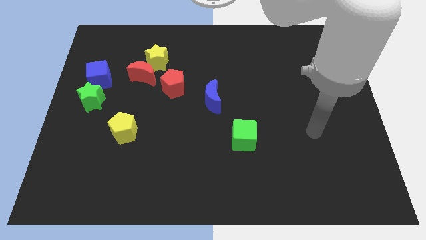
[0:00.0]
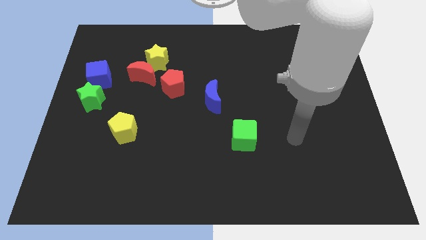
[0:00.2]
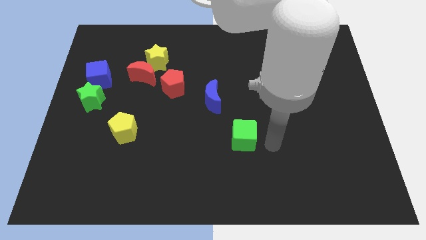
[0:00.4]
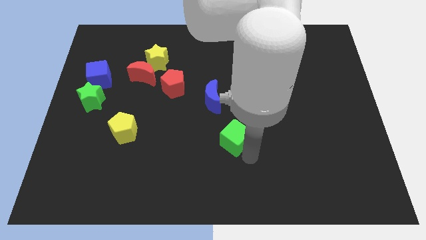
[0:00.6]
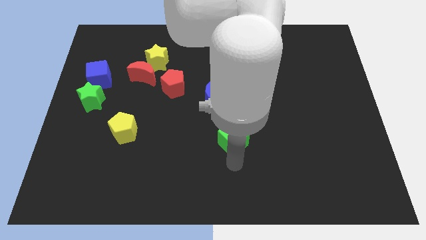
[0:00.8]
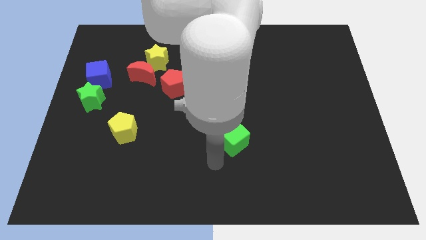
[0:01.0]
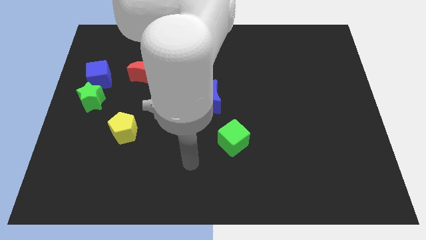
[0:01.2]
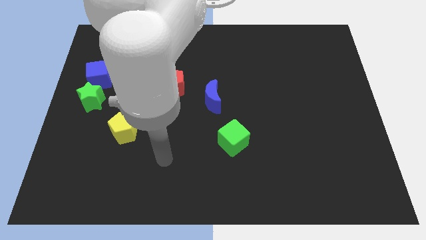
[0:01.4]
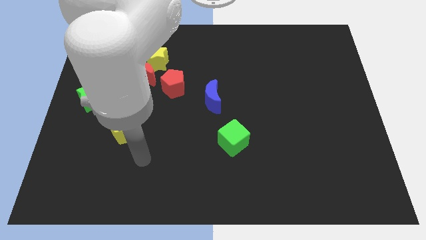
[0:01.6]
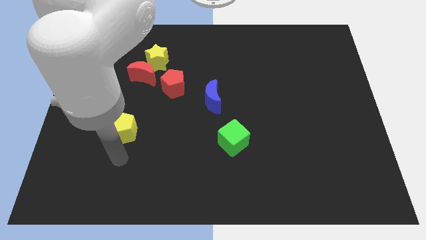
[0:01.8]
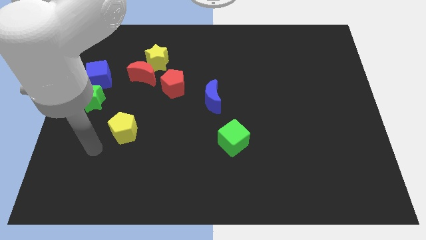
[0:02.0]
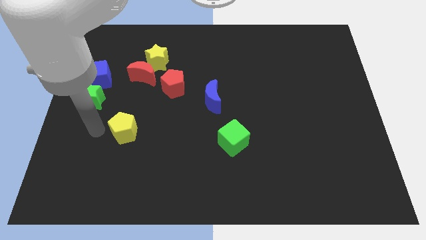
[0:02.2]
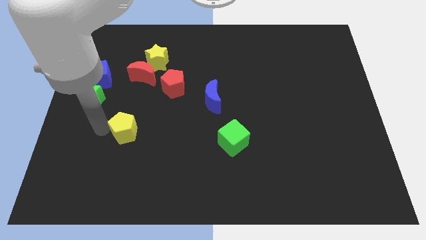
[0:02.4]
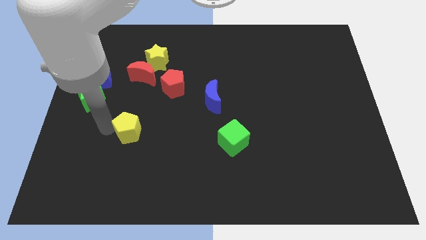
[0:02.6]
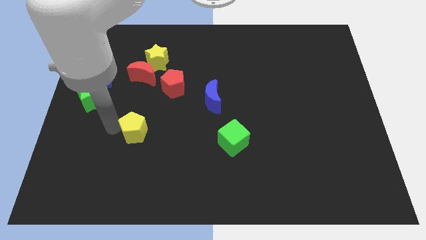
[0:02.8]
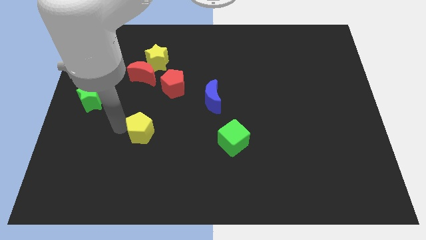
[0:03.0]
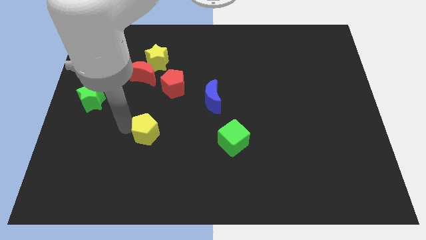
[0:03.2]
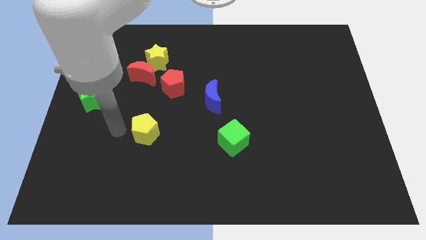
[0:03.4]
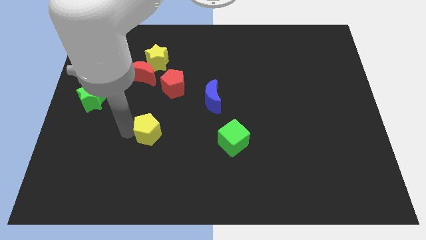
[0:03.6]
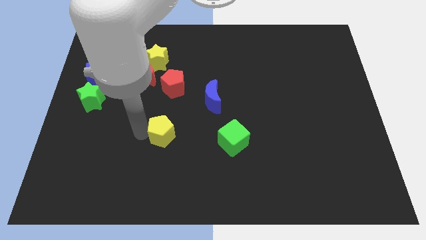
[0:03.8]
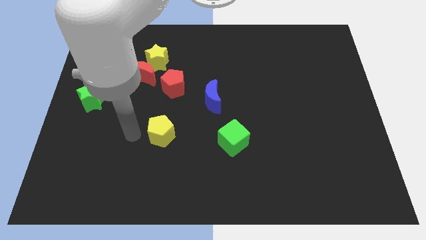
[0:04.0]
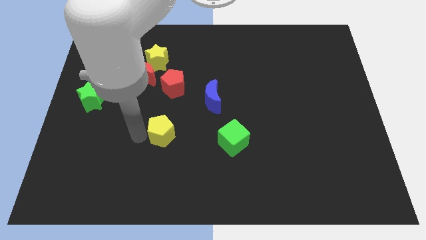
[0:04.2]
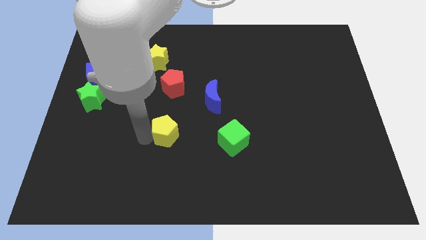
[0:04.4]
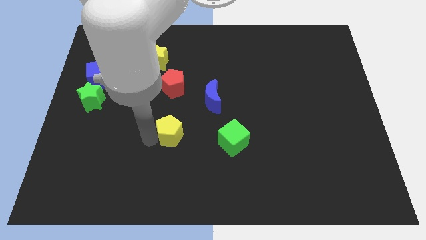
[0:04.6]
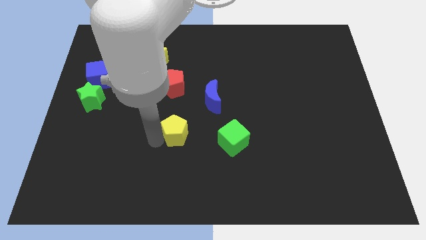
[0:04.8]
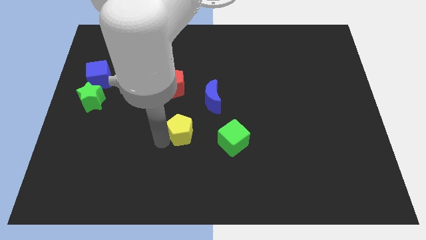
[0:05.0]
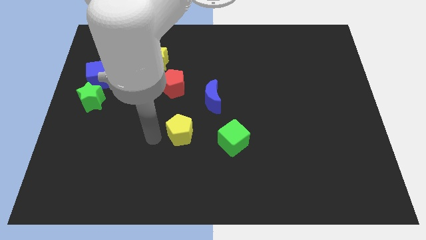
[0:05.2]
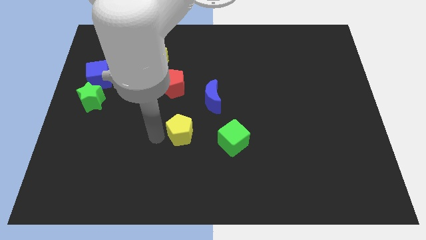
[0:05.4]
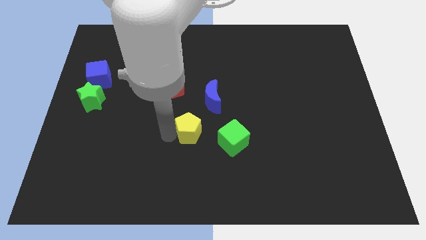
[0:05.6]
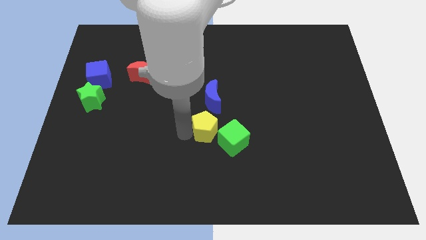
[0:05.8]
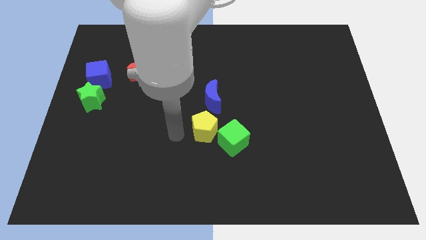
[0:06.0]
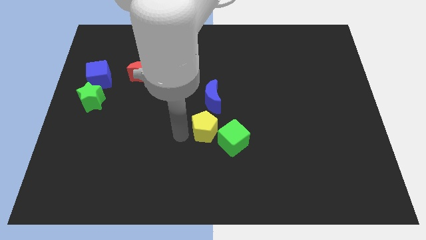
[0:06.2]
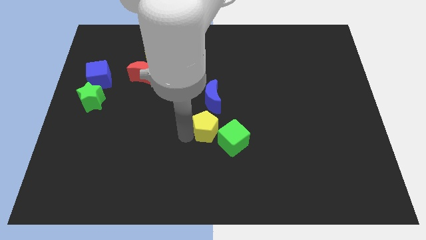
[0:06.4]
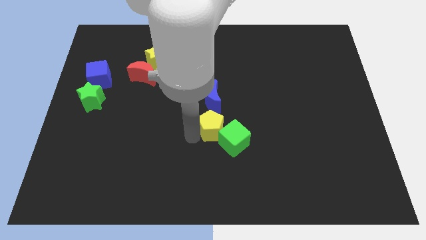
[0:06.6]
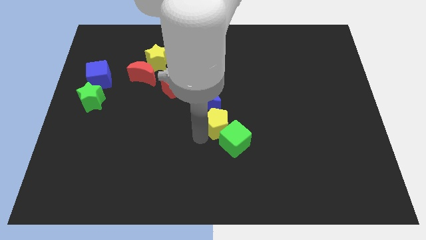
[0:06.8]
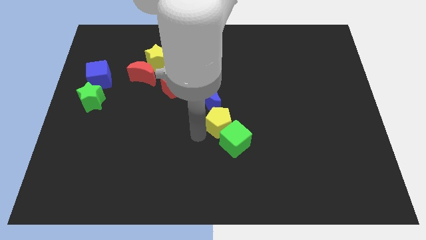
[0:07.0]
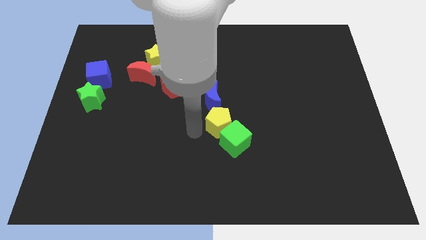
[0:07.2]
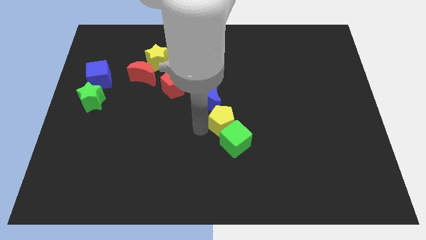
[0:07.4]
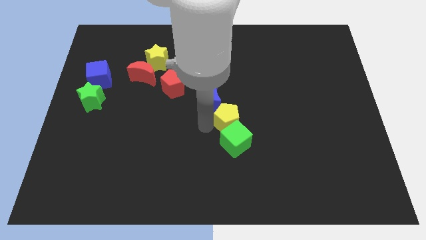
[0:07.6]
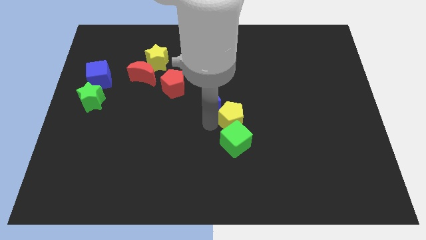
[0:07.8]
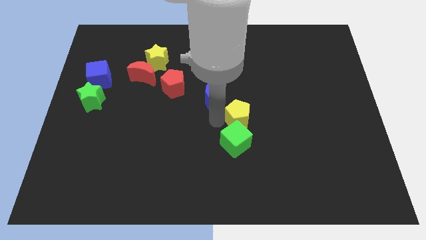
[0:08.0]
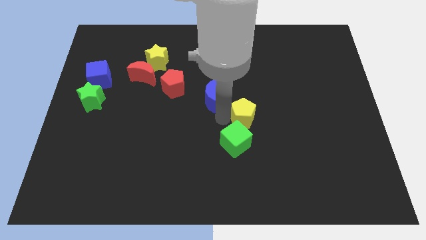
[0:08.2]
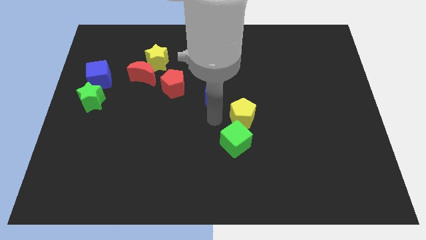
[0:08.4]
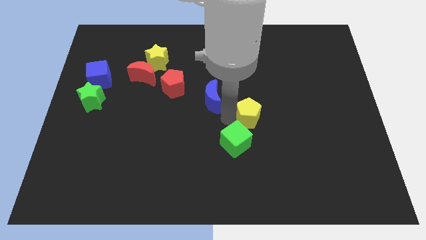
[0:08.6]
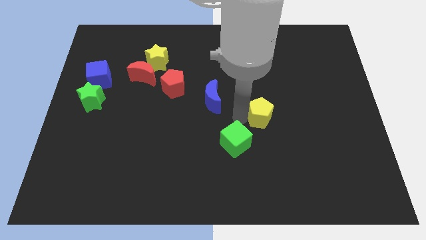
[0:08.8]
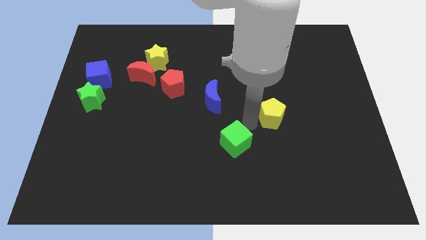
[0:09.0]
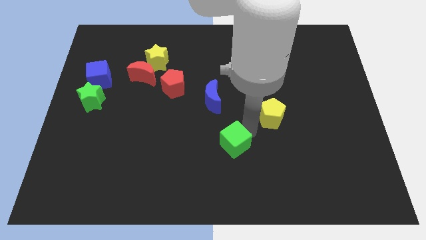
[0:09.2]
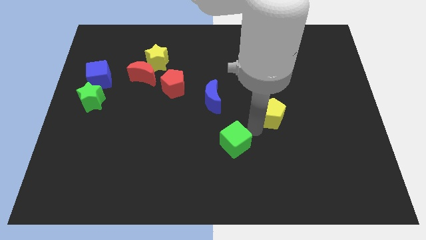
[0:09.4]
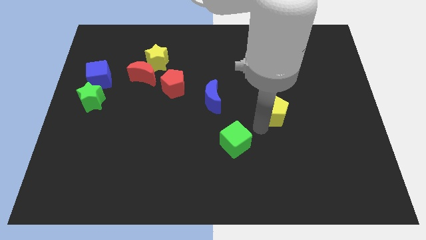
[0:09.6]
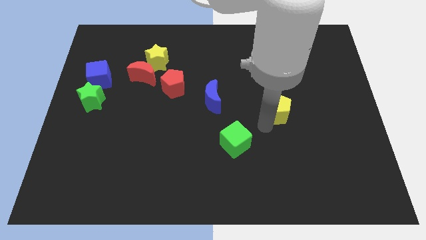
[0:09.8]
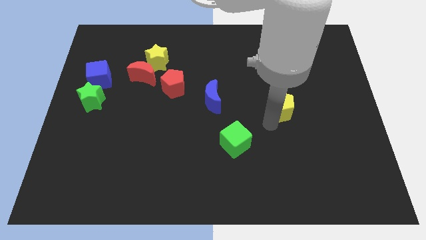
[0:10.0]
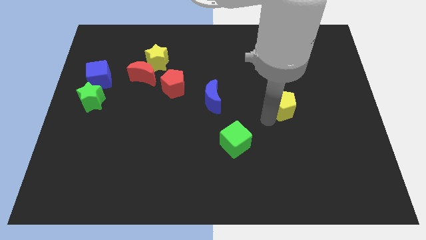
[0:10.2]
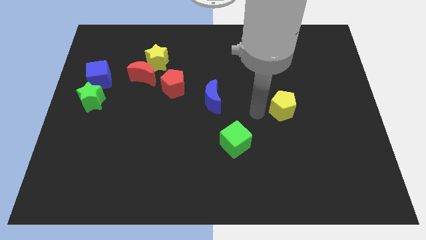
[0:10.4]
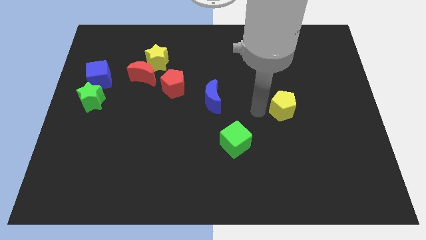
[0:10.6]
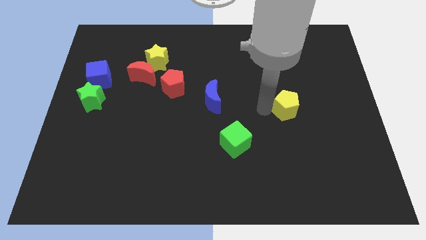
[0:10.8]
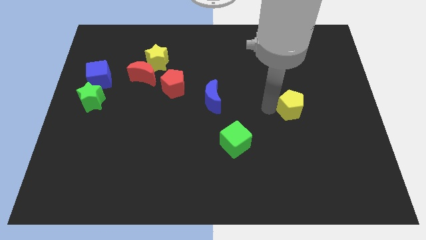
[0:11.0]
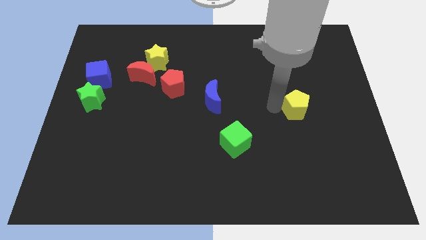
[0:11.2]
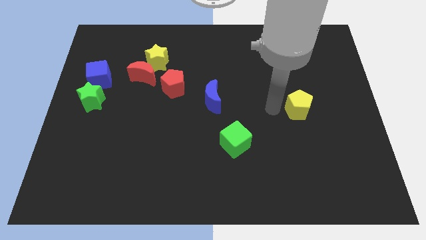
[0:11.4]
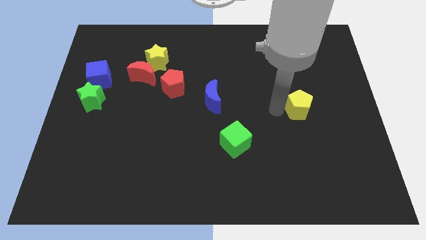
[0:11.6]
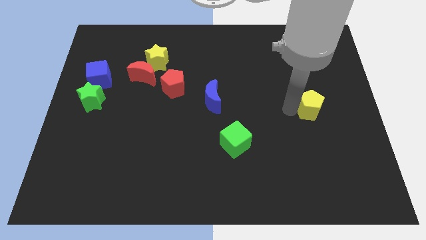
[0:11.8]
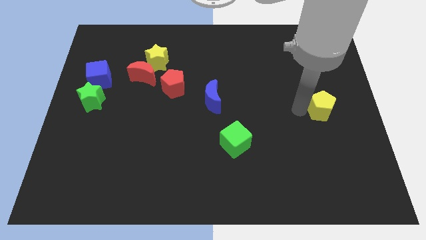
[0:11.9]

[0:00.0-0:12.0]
put the yellow pentagon to the right side of the board
